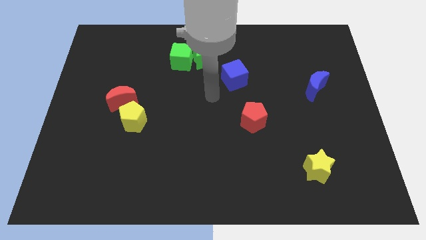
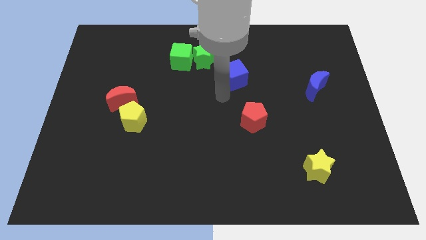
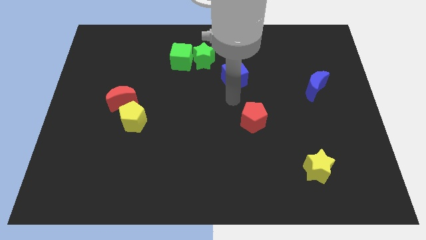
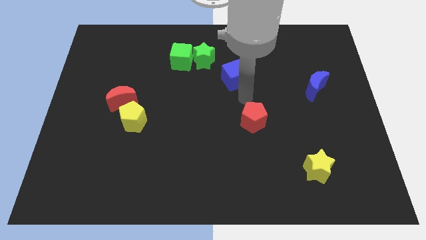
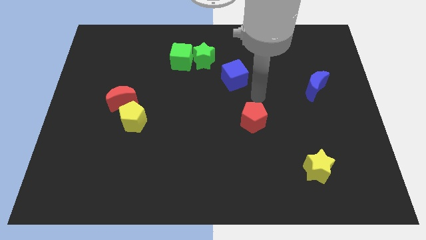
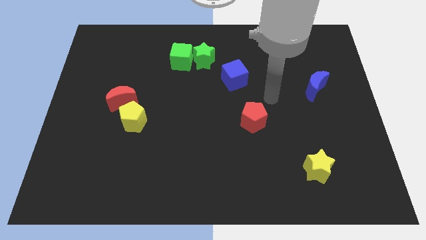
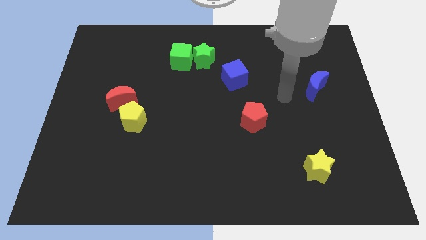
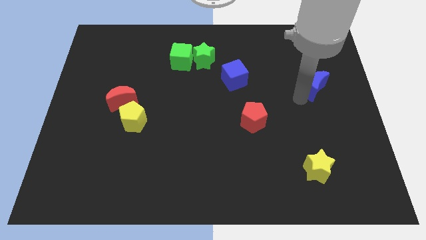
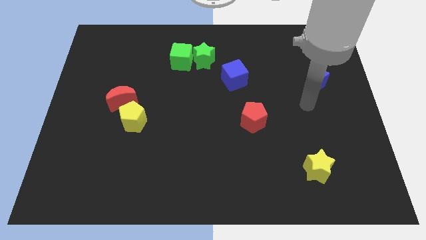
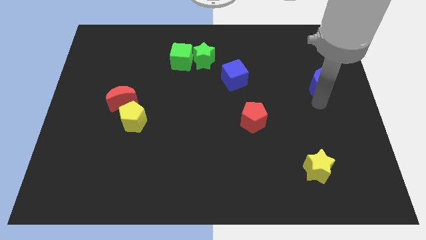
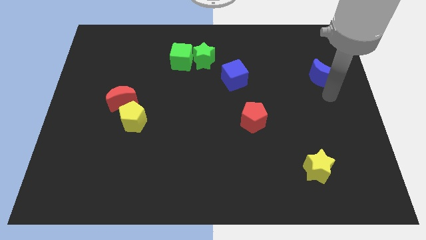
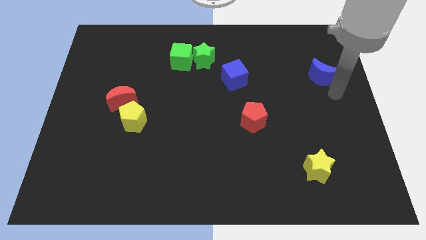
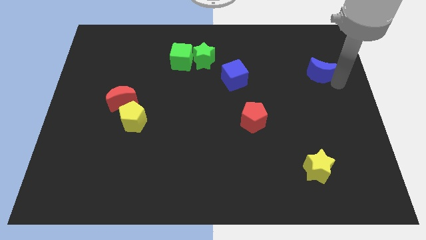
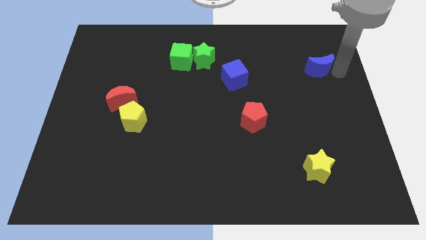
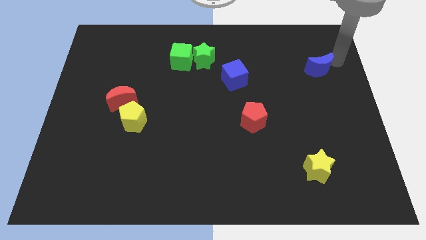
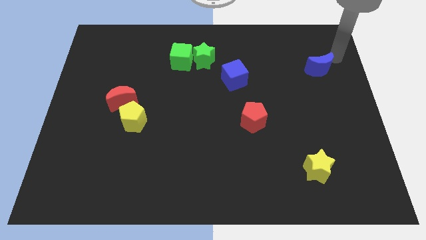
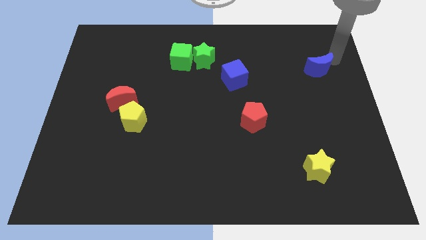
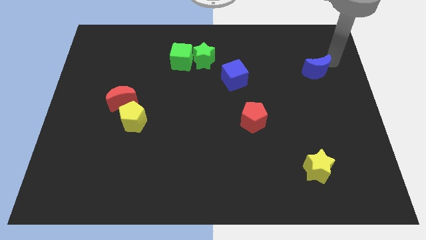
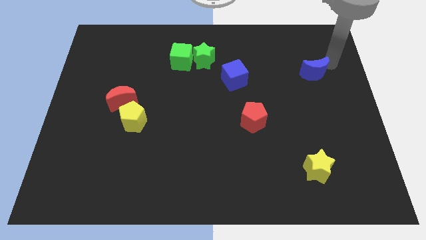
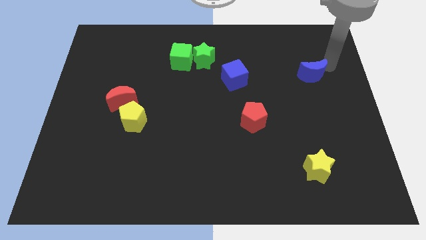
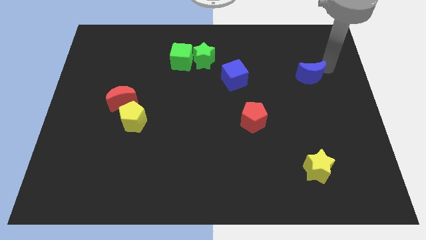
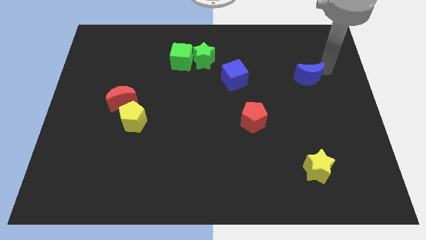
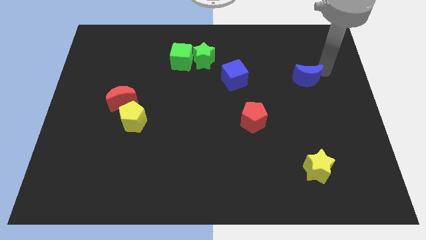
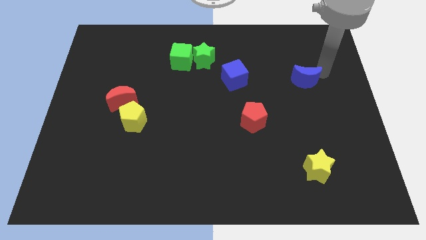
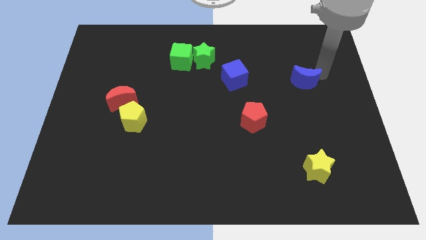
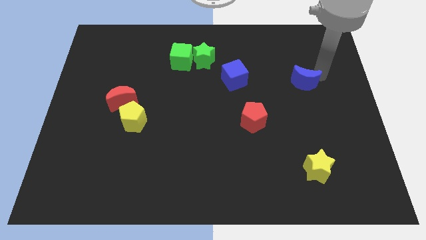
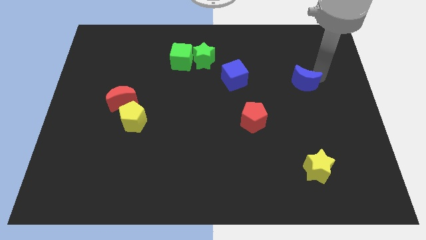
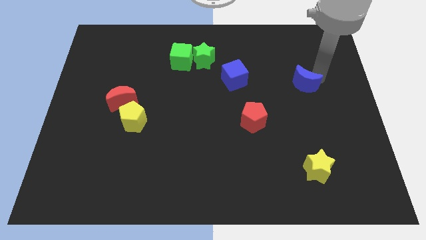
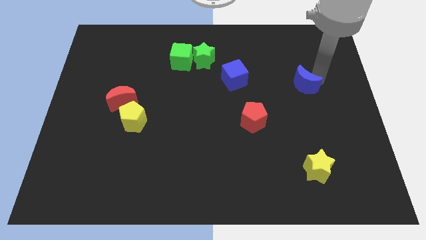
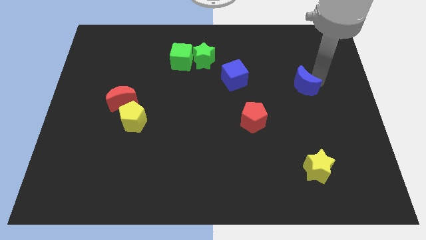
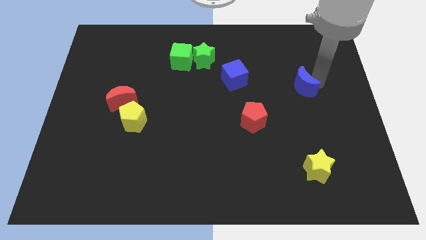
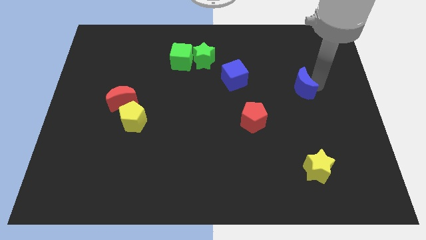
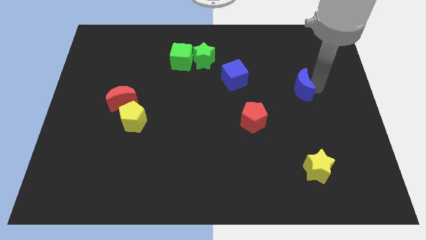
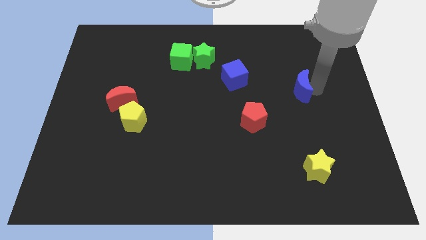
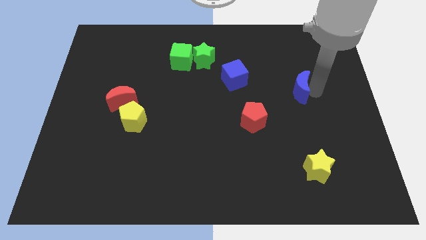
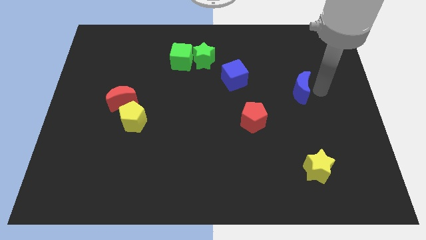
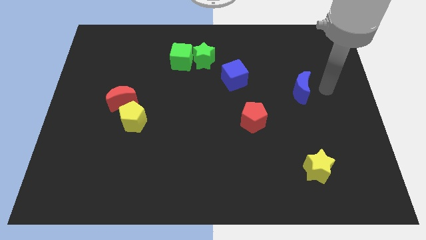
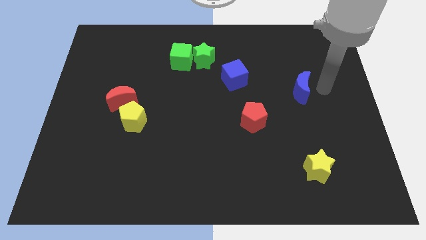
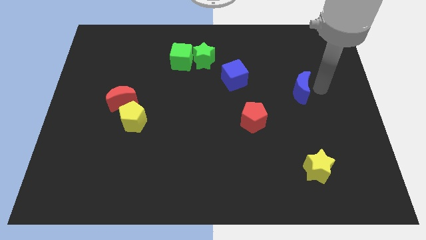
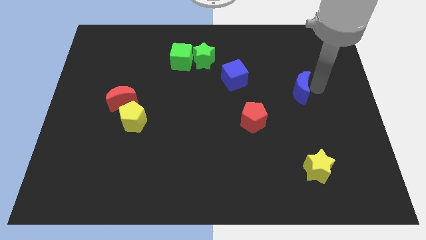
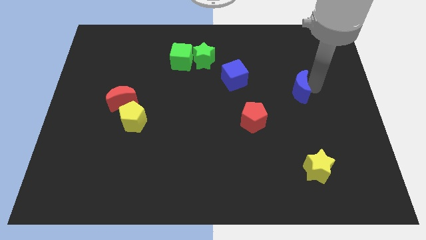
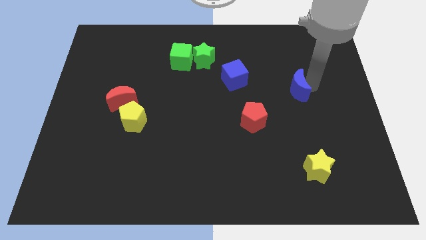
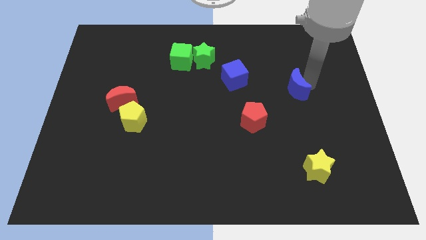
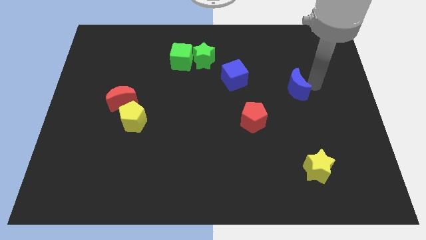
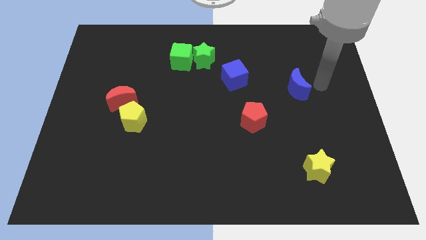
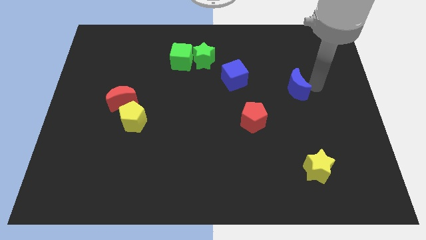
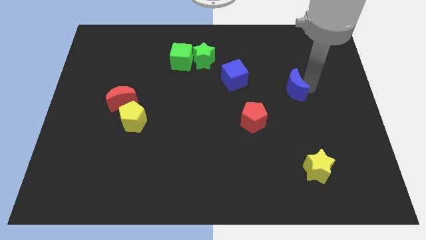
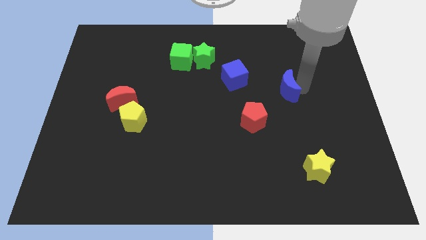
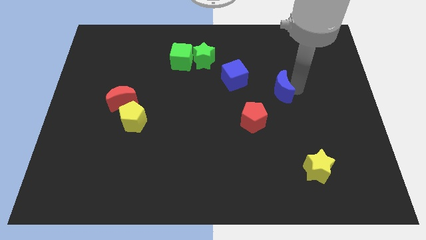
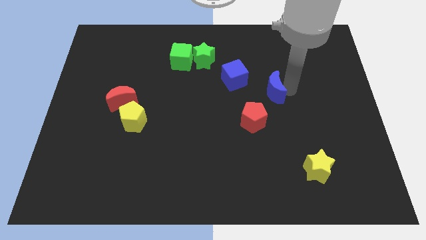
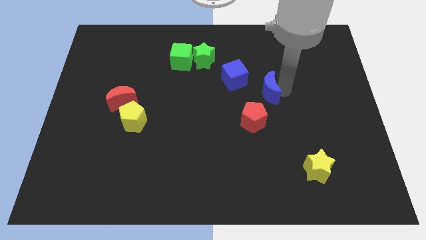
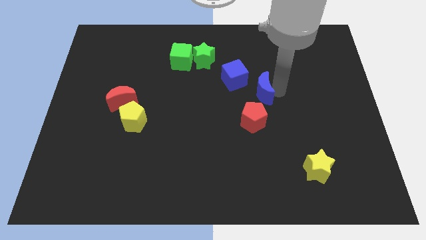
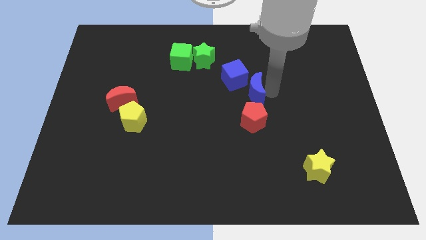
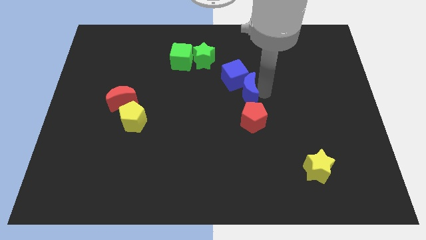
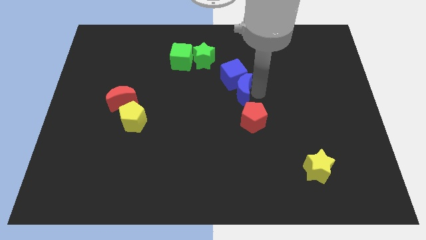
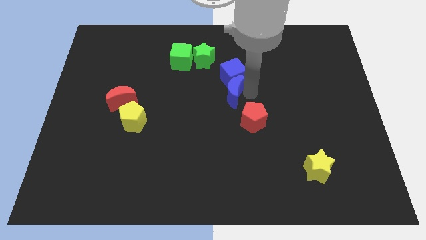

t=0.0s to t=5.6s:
move the blue moon left

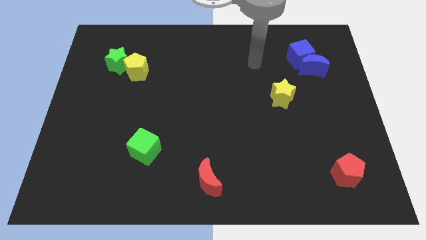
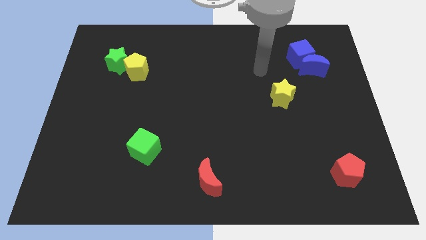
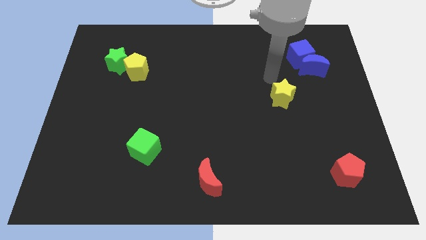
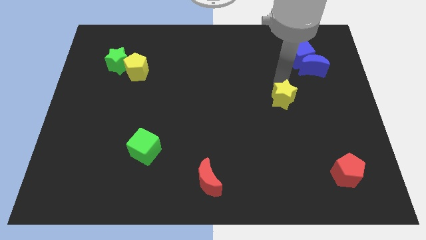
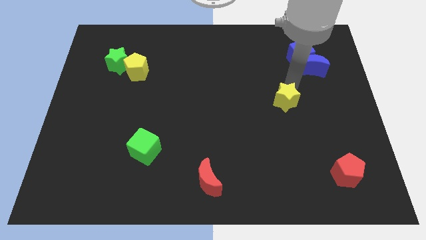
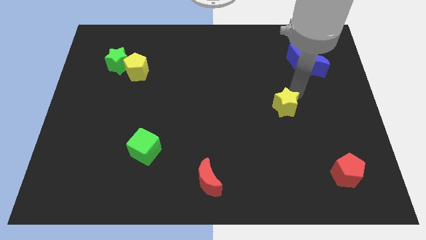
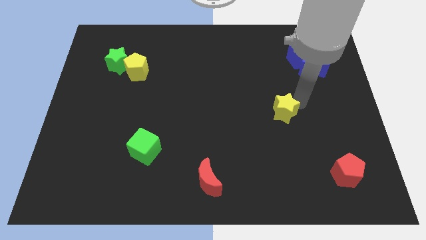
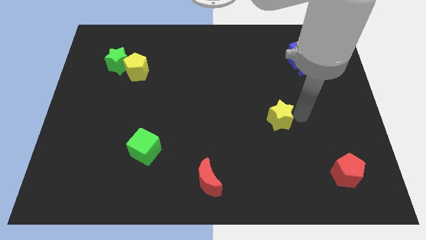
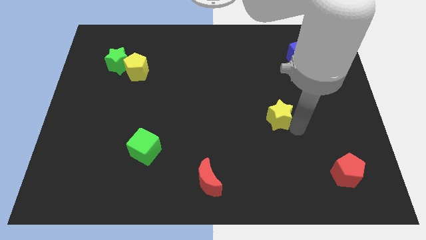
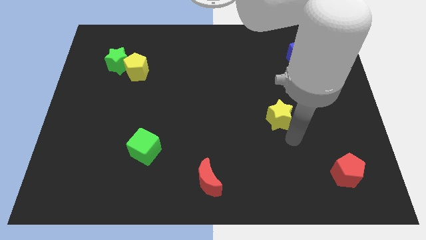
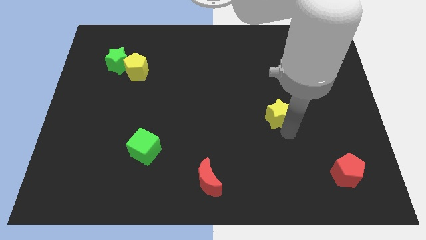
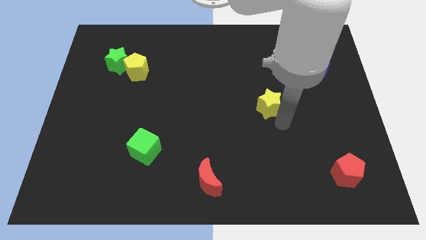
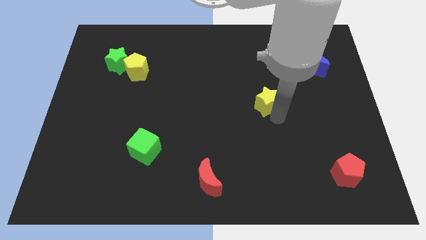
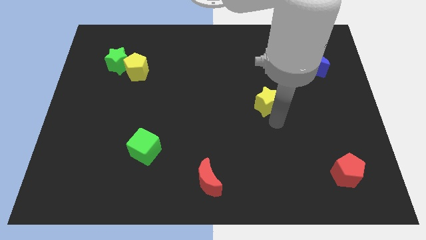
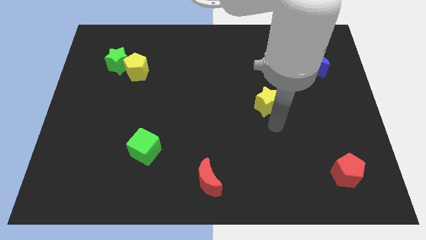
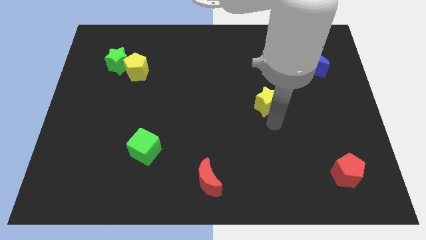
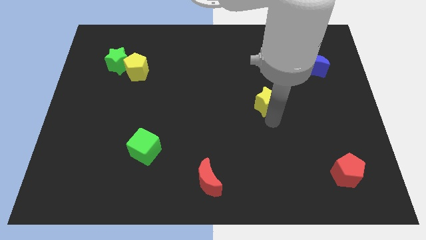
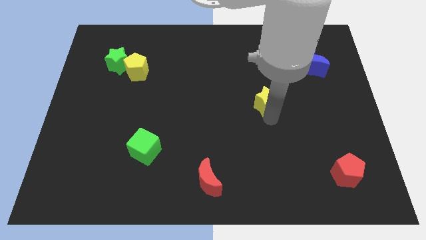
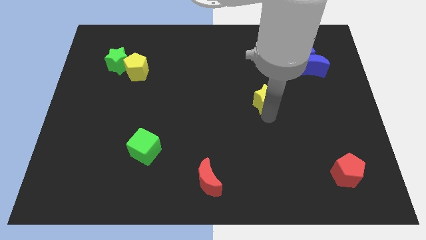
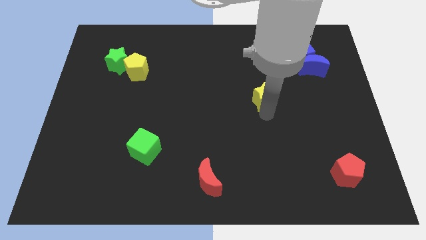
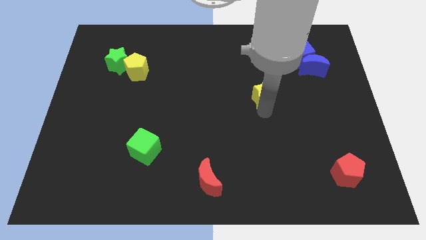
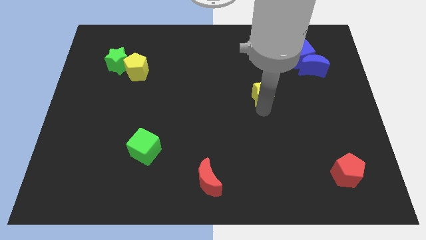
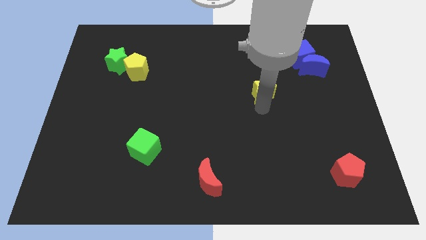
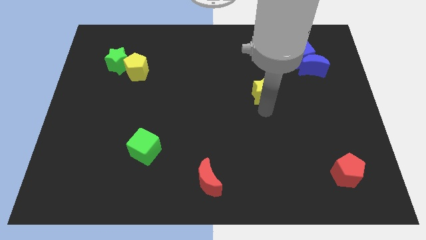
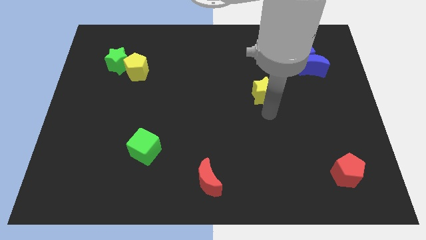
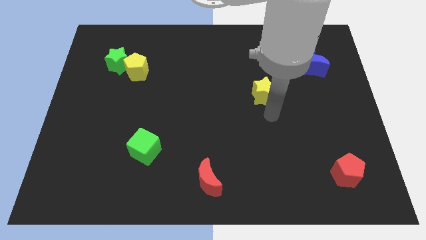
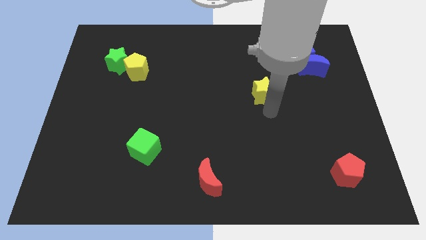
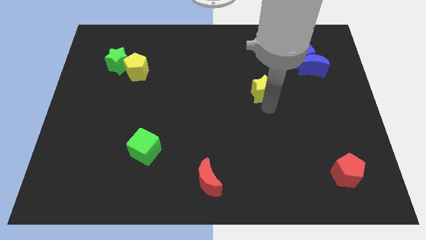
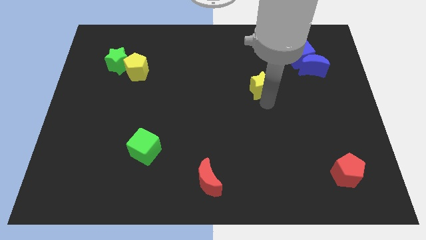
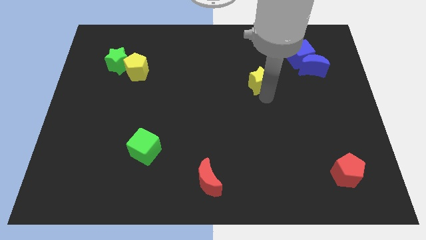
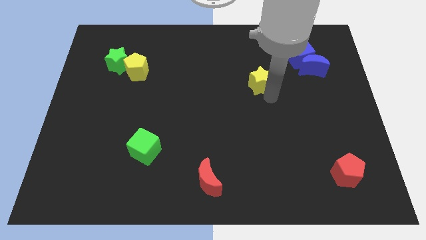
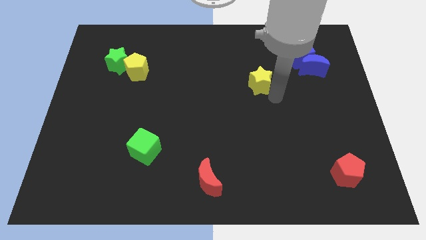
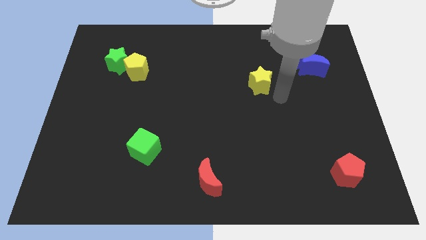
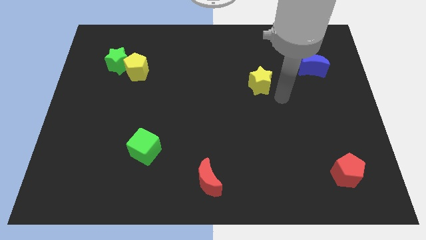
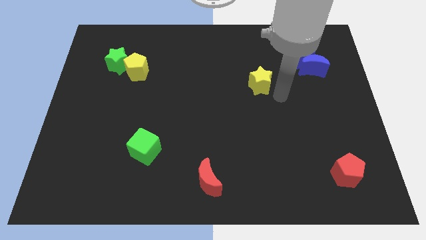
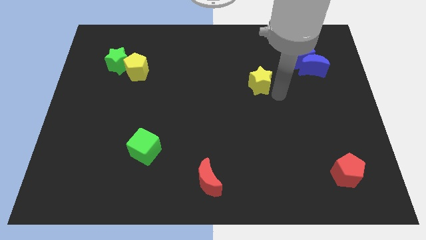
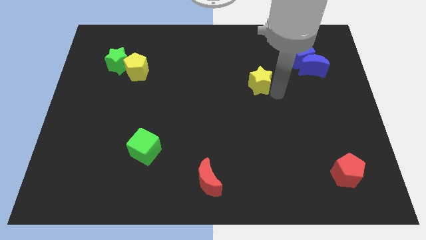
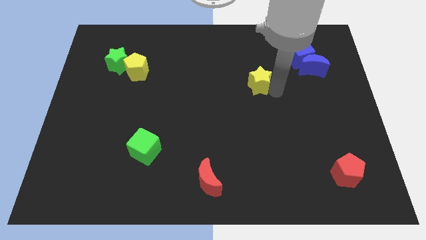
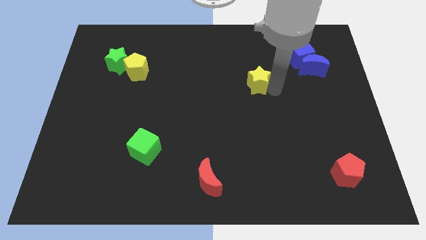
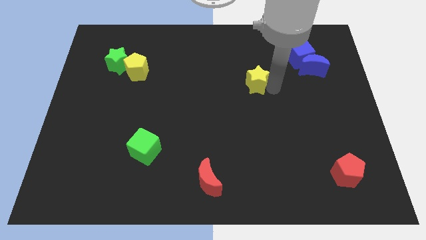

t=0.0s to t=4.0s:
slide the yellow star upwards and to the left a bit
